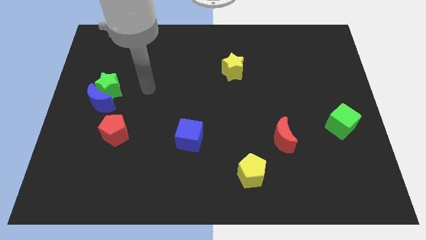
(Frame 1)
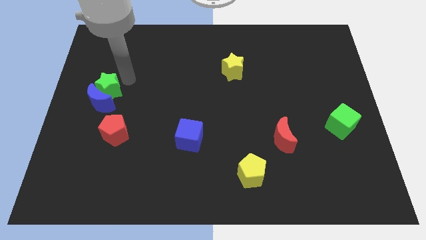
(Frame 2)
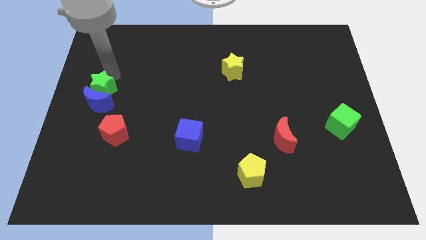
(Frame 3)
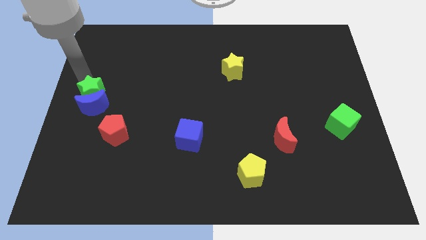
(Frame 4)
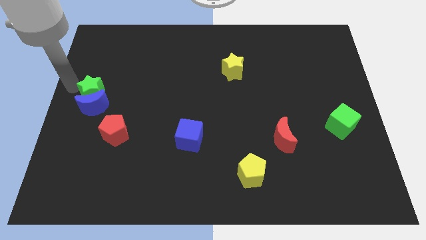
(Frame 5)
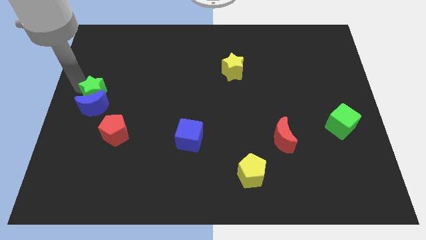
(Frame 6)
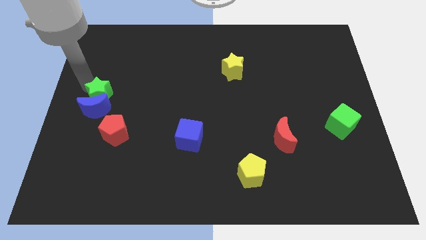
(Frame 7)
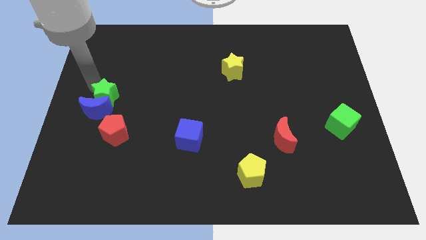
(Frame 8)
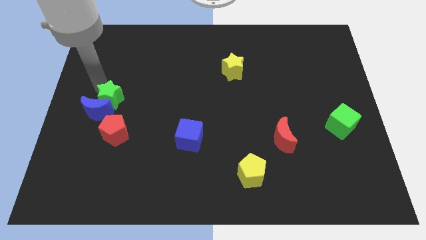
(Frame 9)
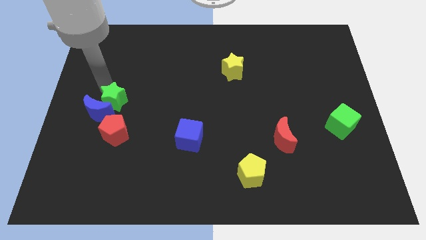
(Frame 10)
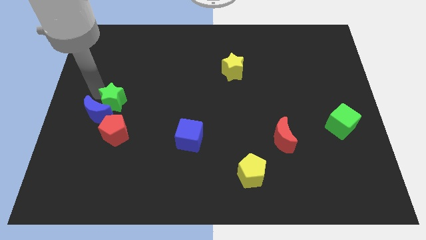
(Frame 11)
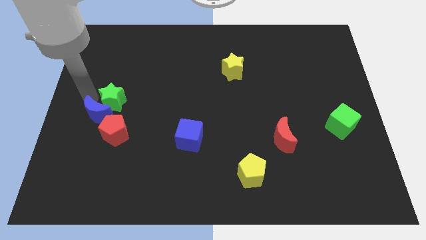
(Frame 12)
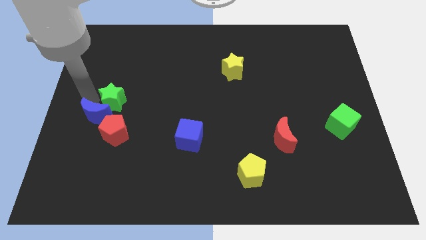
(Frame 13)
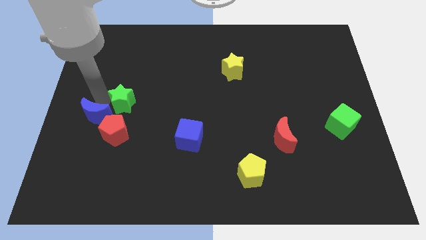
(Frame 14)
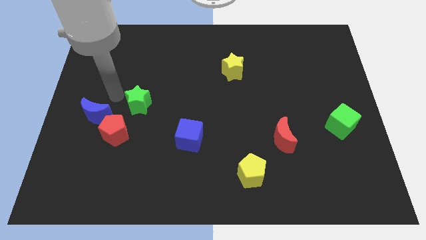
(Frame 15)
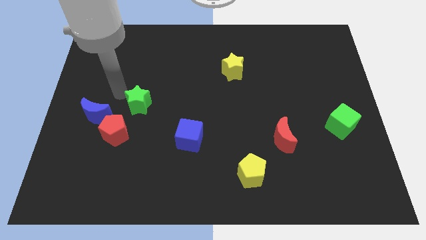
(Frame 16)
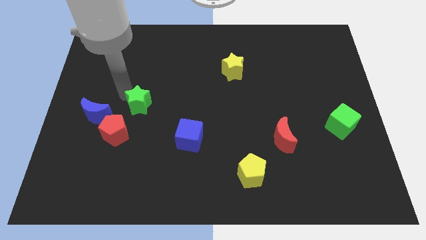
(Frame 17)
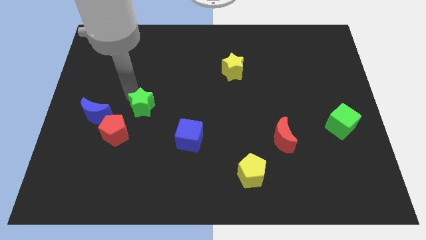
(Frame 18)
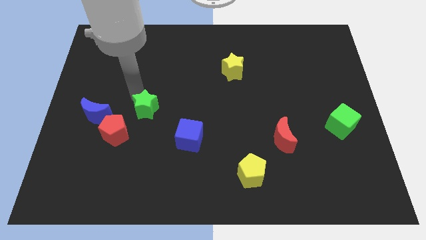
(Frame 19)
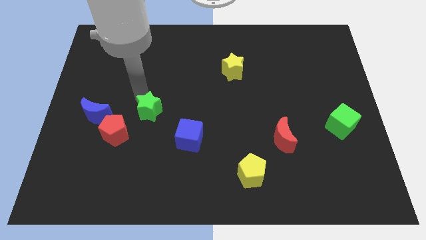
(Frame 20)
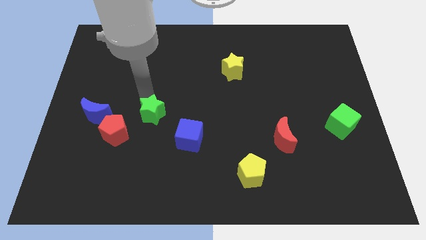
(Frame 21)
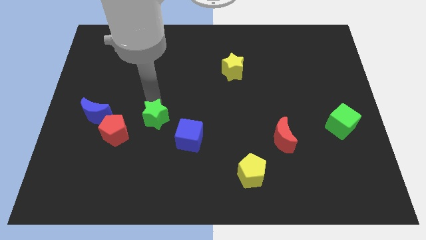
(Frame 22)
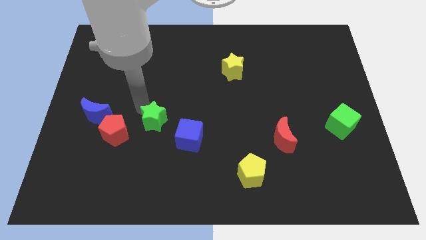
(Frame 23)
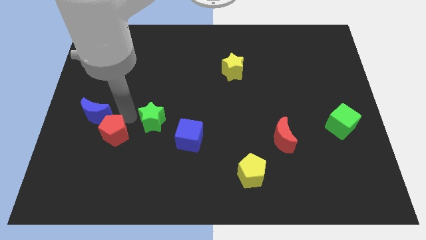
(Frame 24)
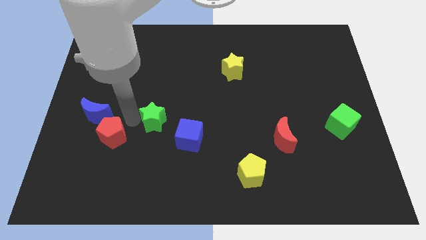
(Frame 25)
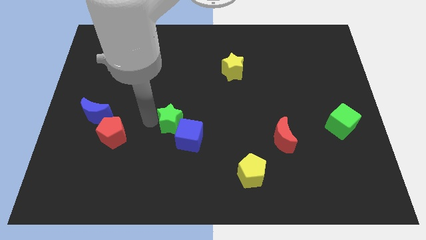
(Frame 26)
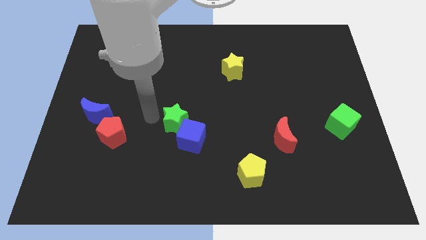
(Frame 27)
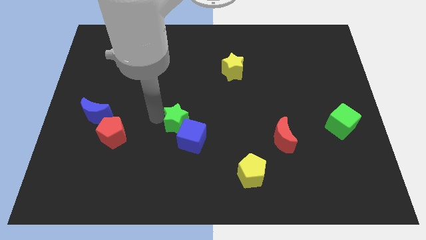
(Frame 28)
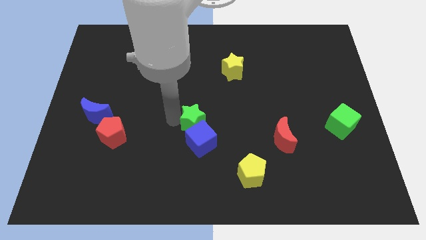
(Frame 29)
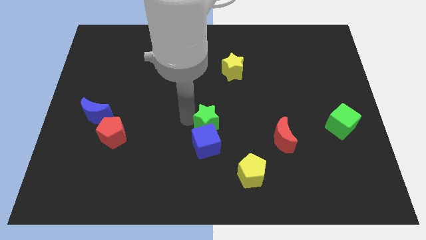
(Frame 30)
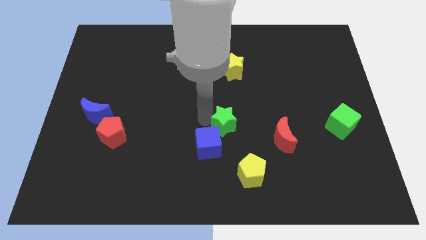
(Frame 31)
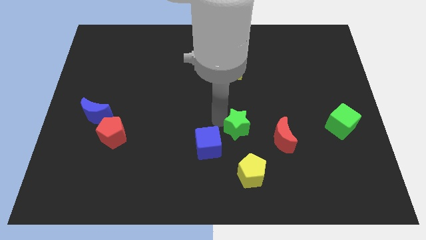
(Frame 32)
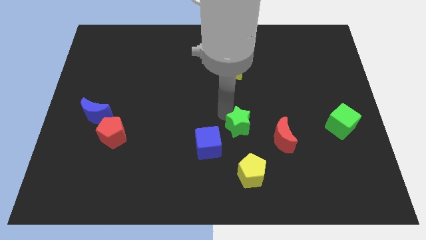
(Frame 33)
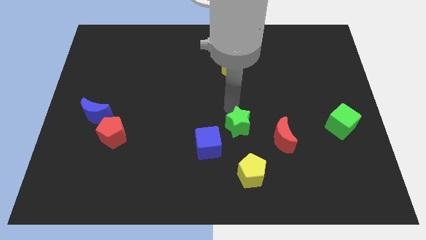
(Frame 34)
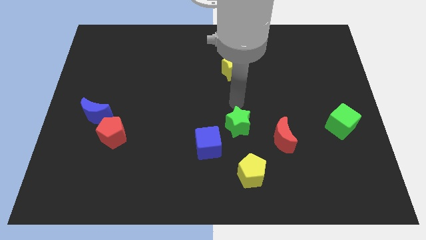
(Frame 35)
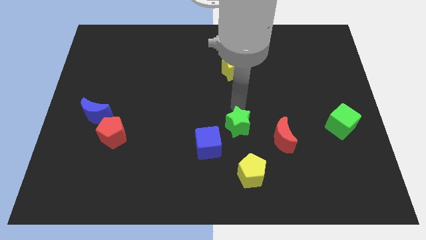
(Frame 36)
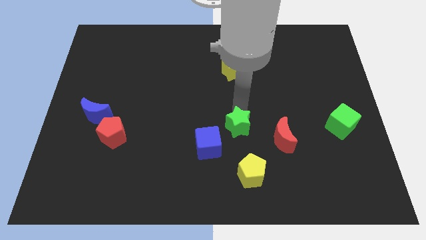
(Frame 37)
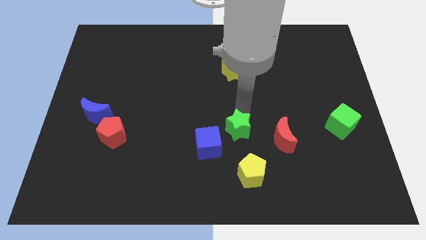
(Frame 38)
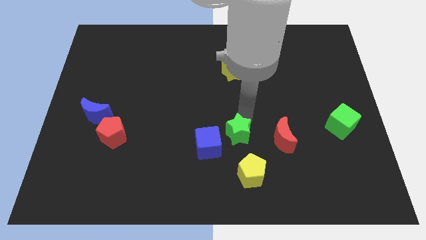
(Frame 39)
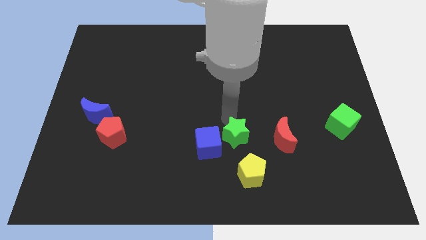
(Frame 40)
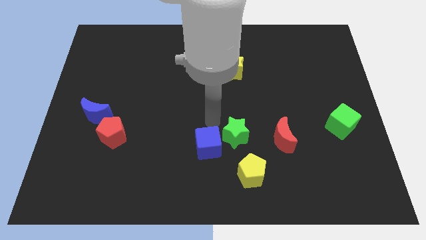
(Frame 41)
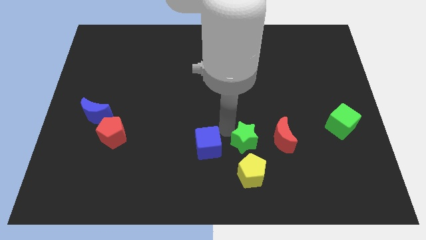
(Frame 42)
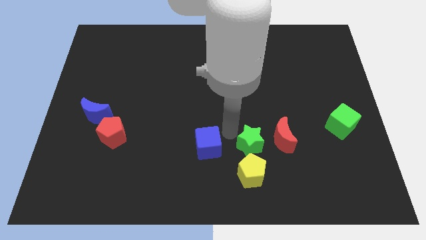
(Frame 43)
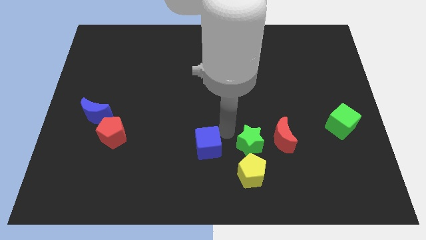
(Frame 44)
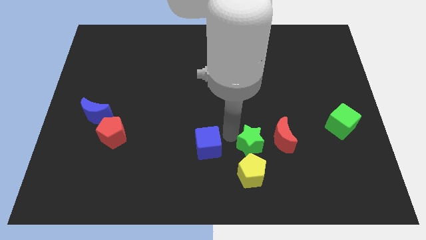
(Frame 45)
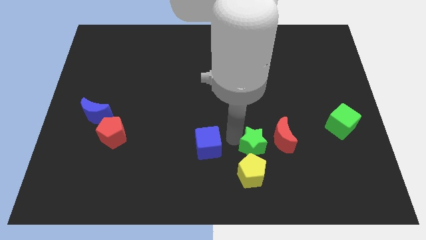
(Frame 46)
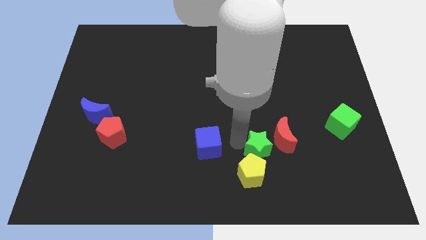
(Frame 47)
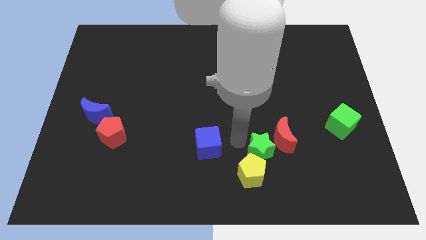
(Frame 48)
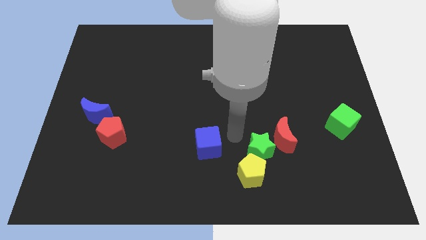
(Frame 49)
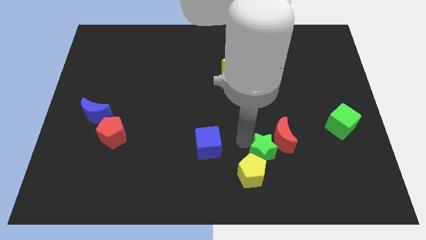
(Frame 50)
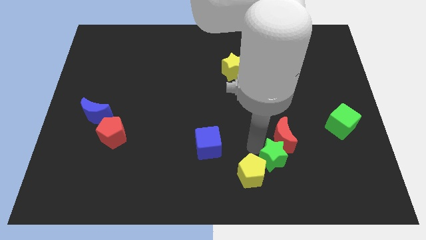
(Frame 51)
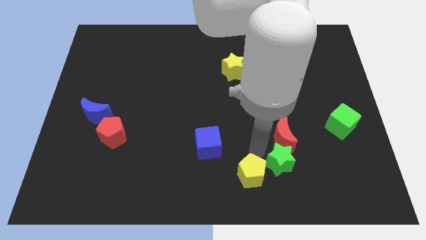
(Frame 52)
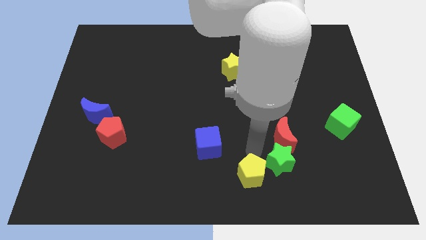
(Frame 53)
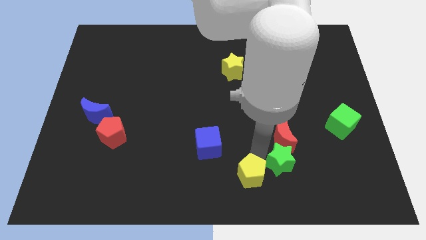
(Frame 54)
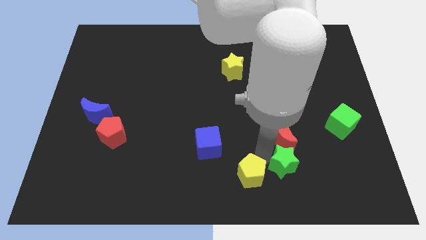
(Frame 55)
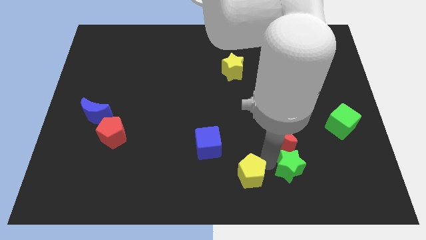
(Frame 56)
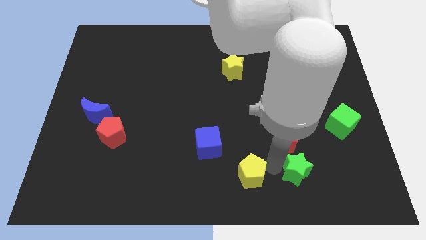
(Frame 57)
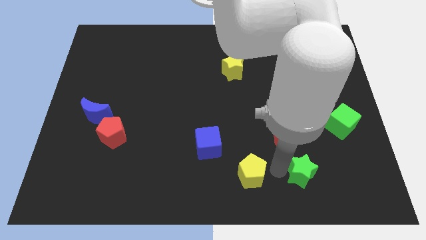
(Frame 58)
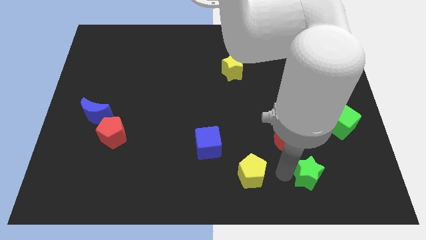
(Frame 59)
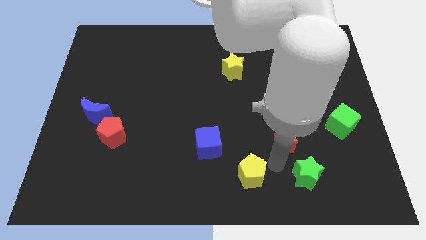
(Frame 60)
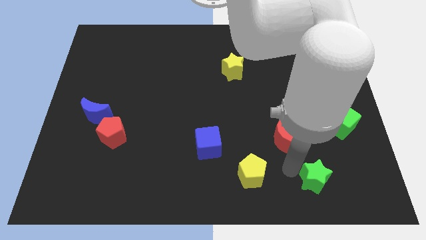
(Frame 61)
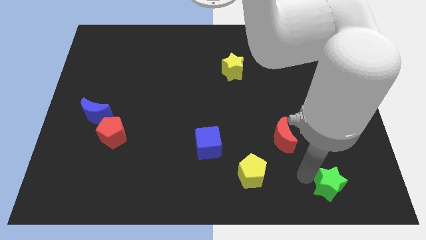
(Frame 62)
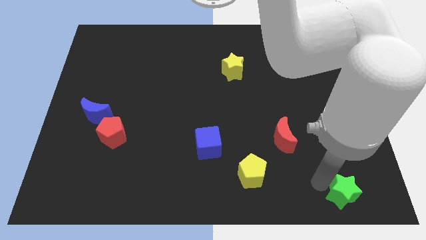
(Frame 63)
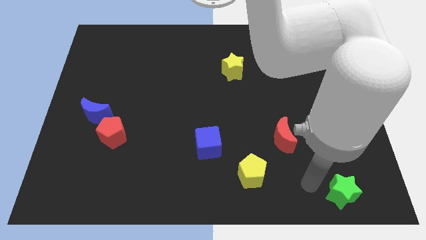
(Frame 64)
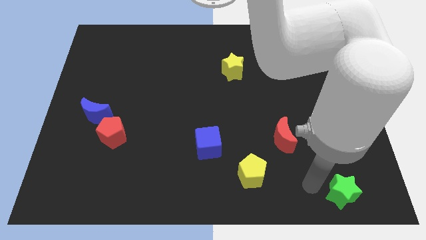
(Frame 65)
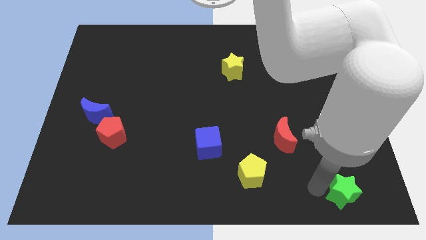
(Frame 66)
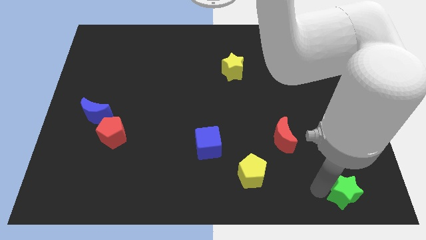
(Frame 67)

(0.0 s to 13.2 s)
slide the green star to the bottom right

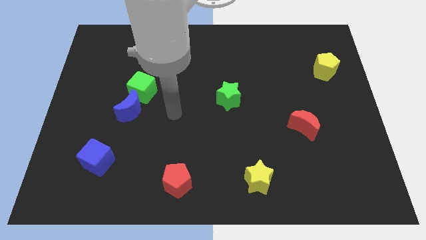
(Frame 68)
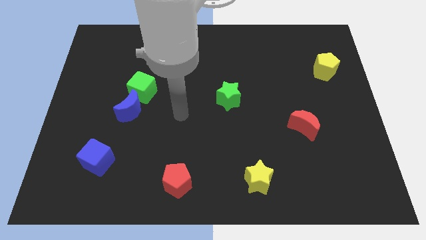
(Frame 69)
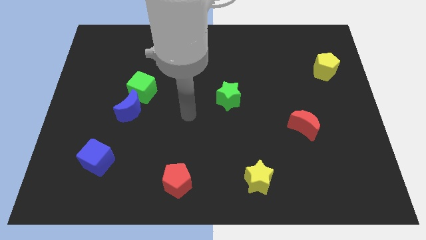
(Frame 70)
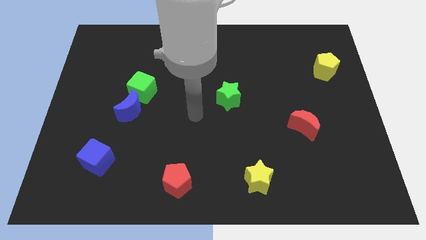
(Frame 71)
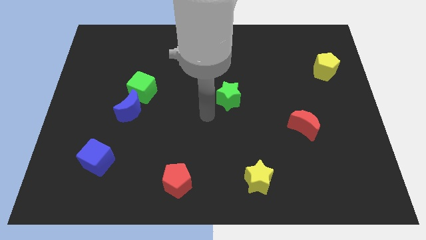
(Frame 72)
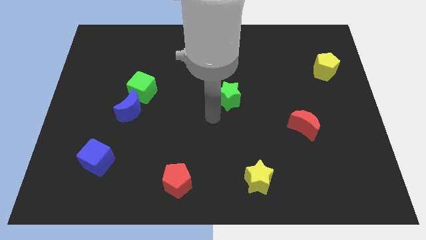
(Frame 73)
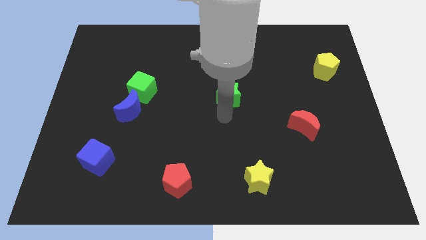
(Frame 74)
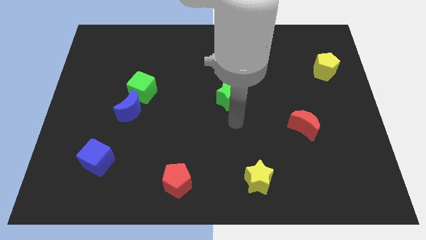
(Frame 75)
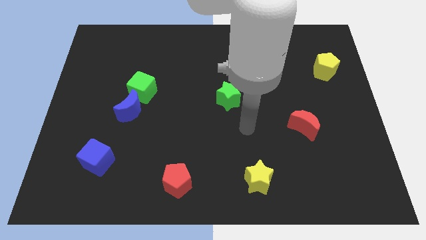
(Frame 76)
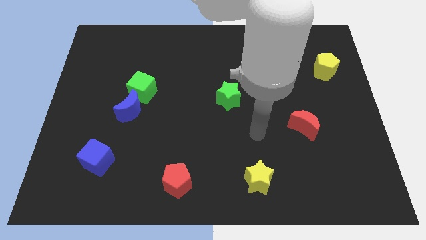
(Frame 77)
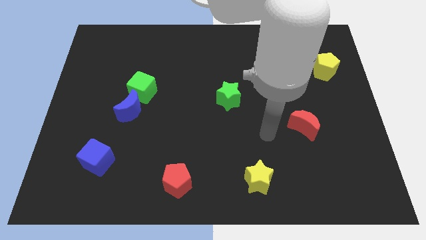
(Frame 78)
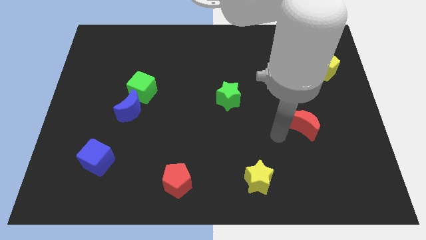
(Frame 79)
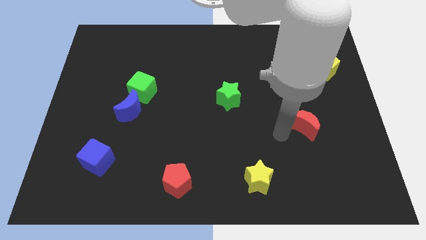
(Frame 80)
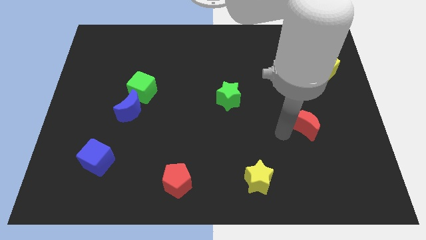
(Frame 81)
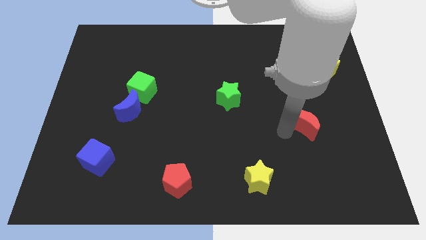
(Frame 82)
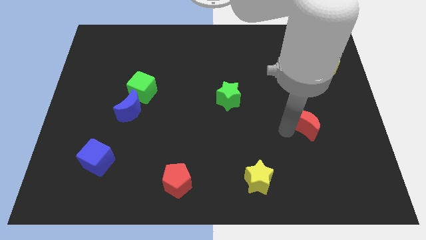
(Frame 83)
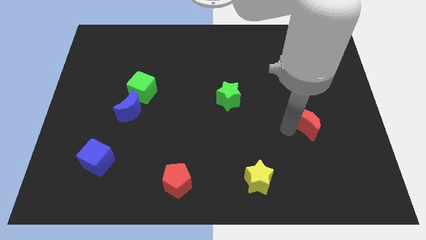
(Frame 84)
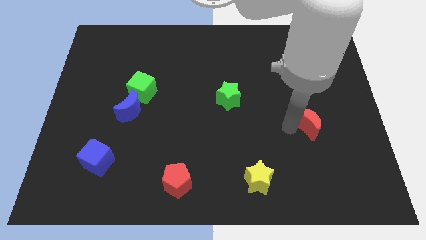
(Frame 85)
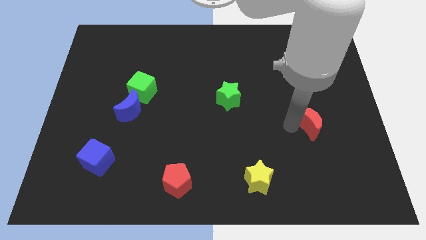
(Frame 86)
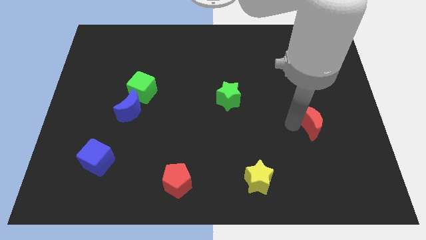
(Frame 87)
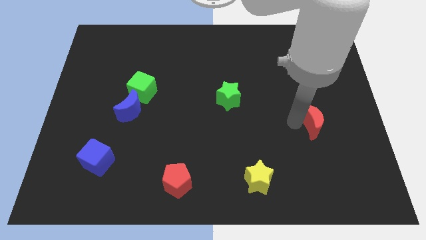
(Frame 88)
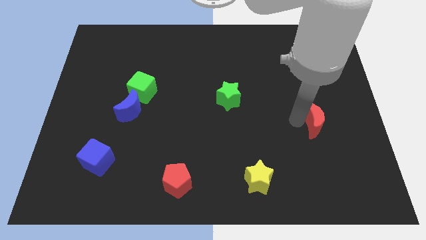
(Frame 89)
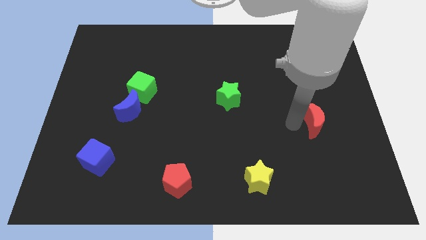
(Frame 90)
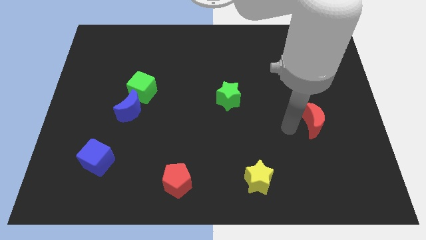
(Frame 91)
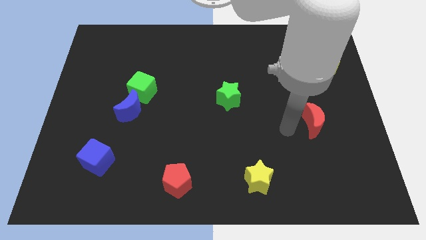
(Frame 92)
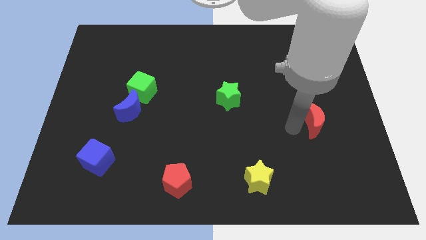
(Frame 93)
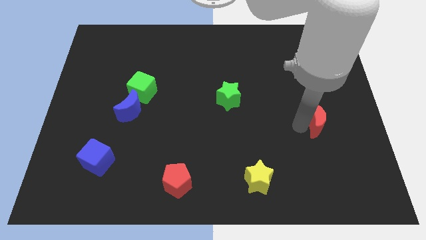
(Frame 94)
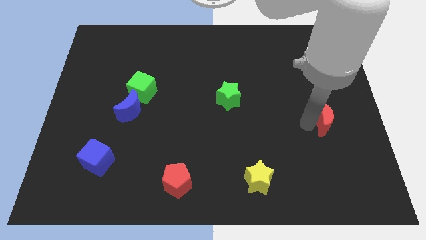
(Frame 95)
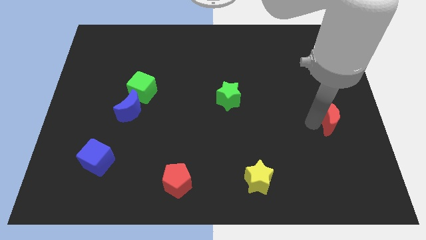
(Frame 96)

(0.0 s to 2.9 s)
push the red moon to the center right
